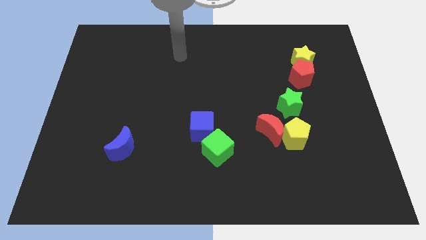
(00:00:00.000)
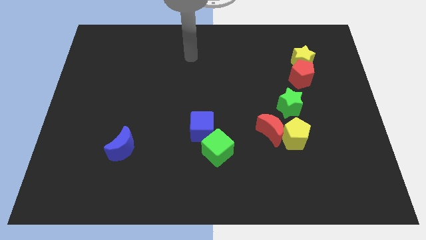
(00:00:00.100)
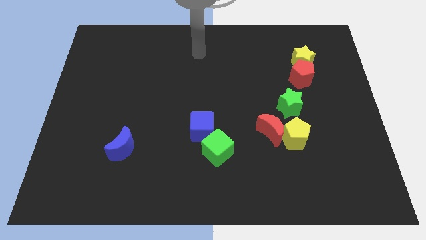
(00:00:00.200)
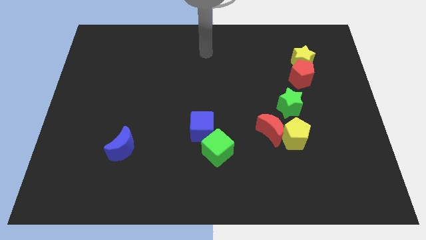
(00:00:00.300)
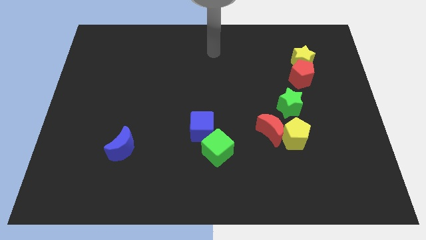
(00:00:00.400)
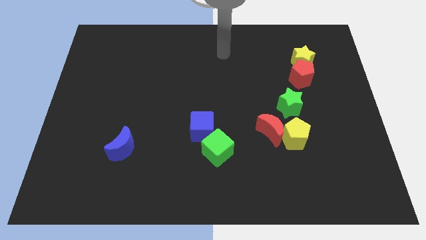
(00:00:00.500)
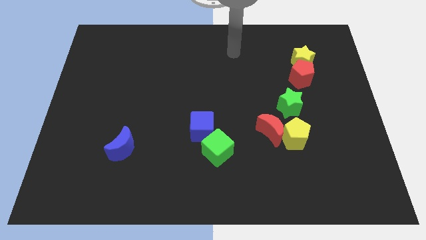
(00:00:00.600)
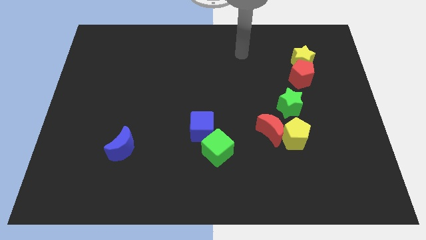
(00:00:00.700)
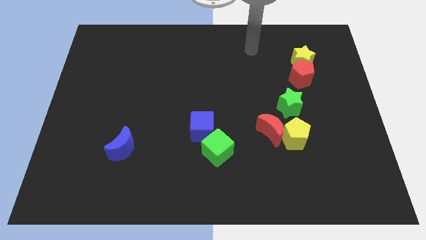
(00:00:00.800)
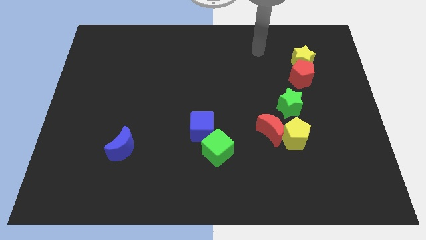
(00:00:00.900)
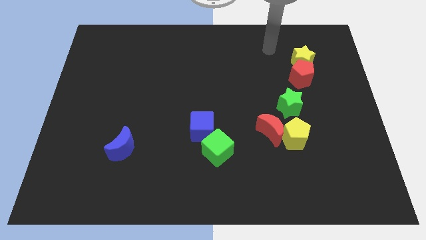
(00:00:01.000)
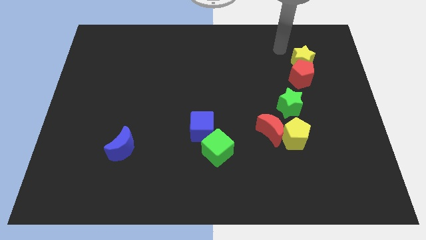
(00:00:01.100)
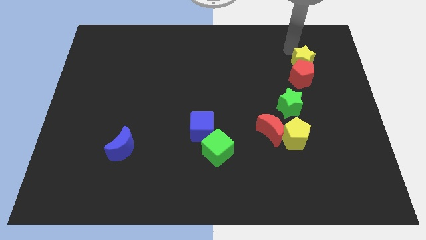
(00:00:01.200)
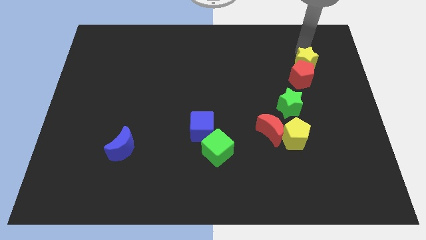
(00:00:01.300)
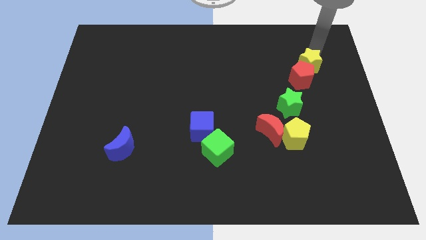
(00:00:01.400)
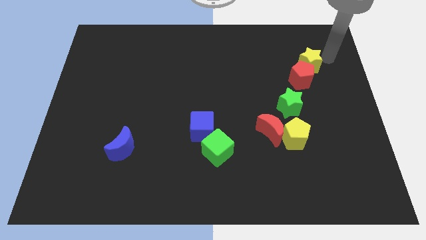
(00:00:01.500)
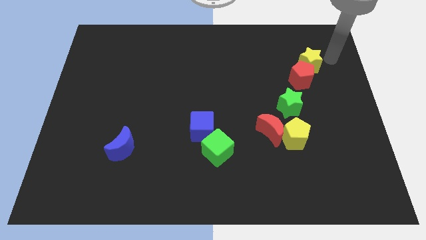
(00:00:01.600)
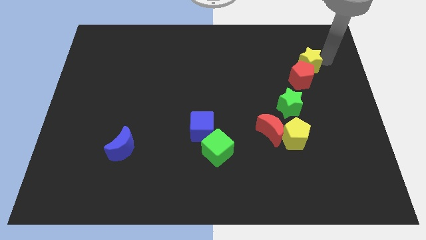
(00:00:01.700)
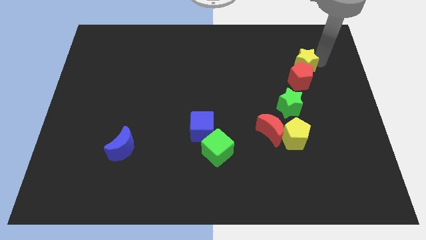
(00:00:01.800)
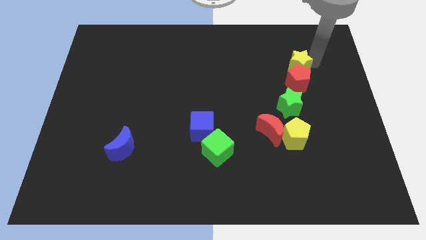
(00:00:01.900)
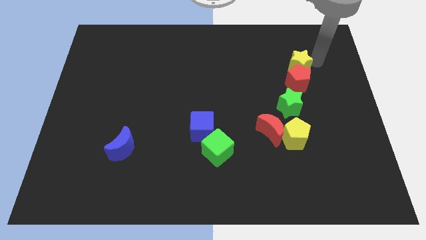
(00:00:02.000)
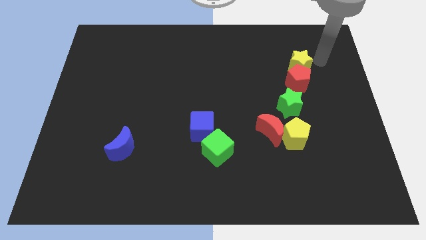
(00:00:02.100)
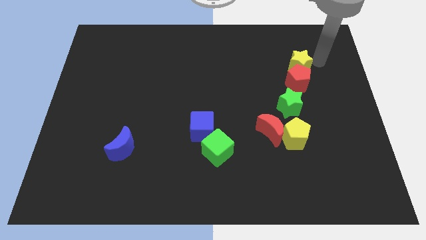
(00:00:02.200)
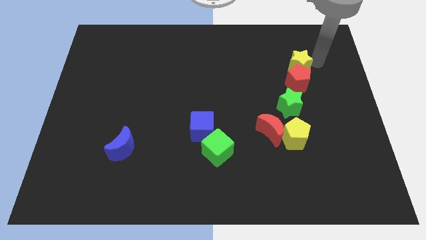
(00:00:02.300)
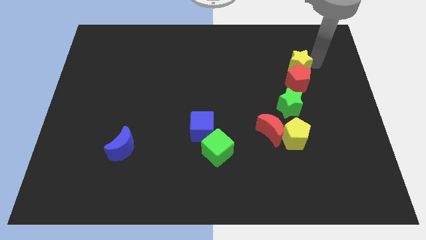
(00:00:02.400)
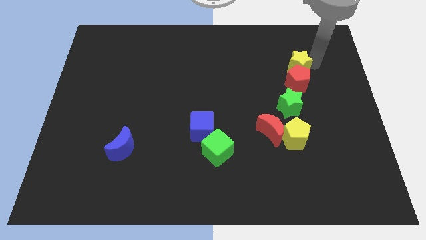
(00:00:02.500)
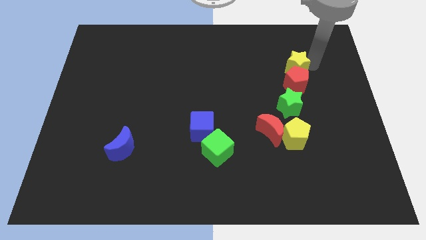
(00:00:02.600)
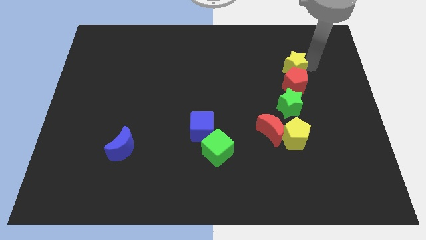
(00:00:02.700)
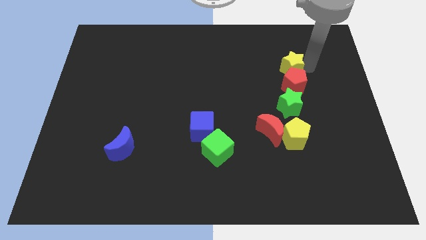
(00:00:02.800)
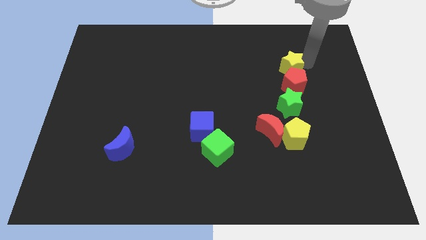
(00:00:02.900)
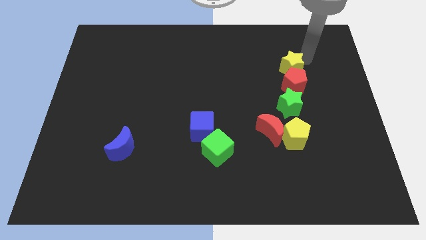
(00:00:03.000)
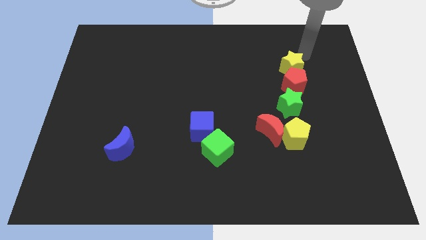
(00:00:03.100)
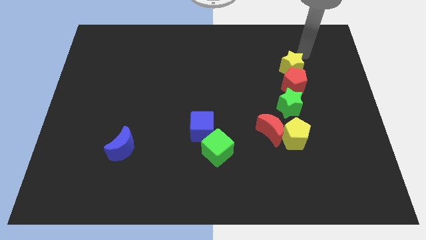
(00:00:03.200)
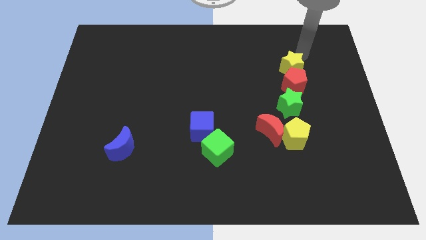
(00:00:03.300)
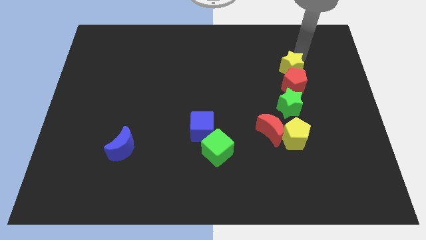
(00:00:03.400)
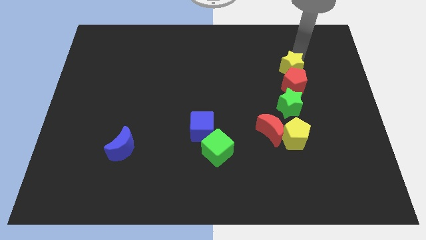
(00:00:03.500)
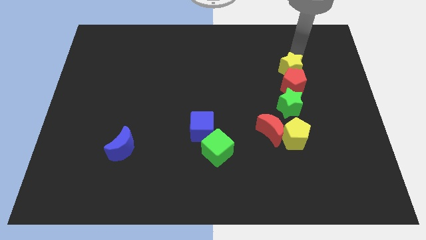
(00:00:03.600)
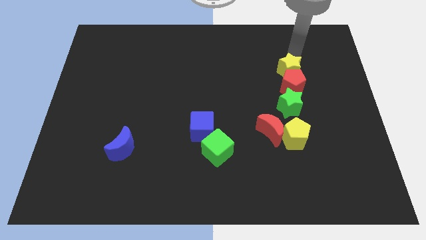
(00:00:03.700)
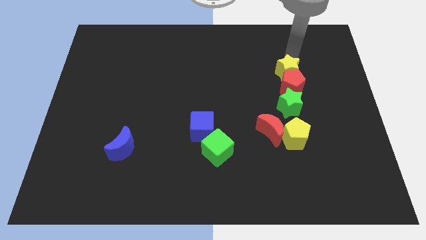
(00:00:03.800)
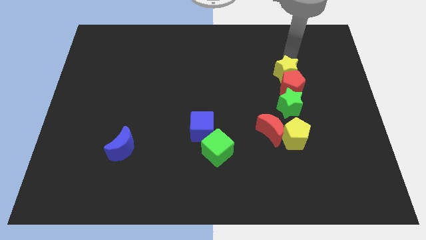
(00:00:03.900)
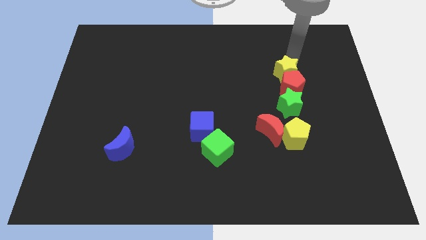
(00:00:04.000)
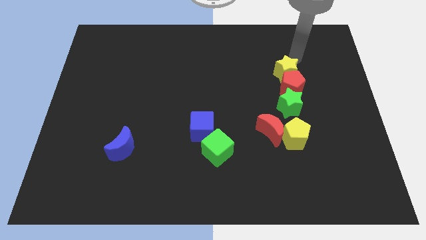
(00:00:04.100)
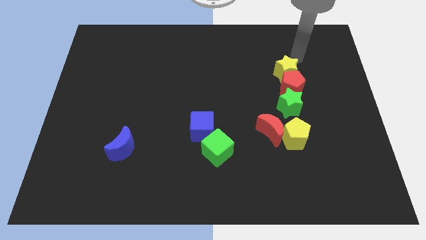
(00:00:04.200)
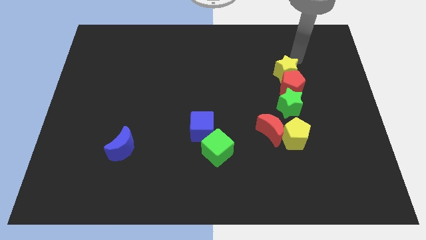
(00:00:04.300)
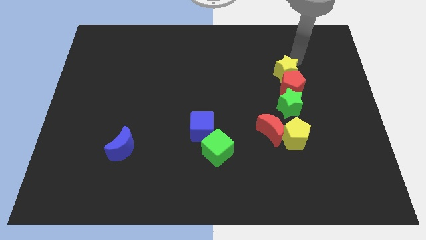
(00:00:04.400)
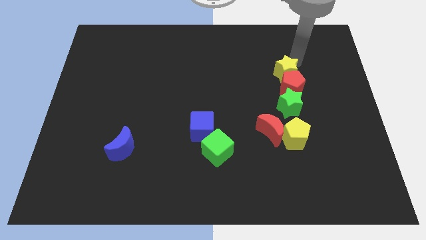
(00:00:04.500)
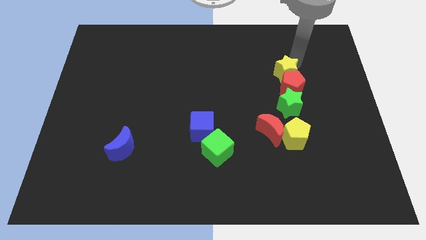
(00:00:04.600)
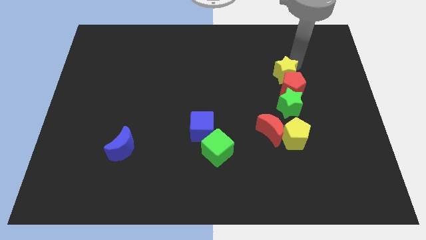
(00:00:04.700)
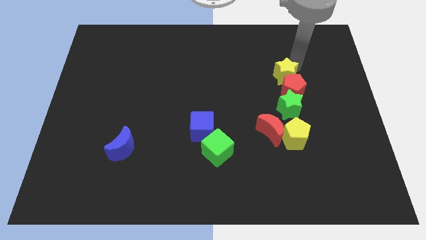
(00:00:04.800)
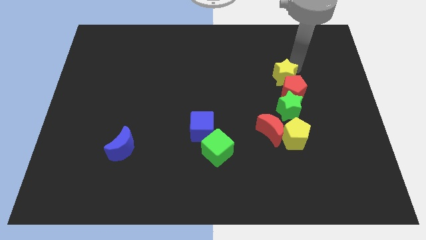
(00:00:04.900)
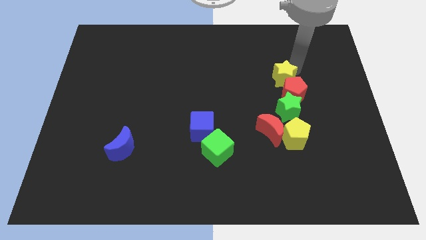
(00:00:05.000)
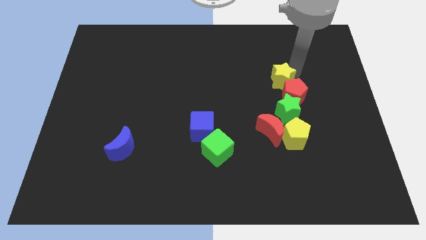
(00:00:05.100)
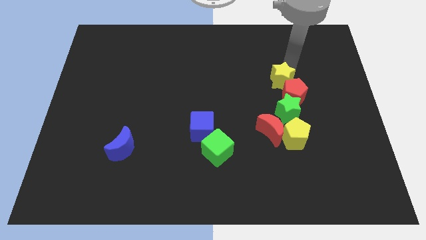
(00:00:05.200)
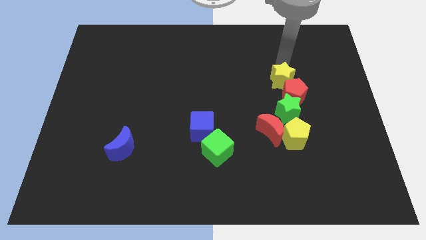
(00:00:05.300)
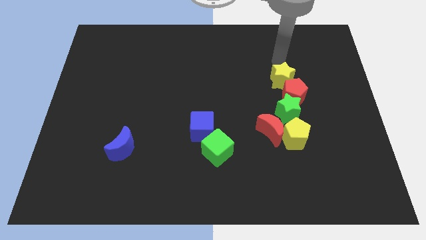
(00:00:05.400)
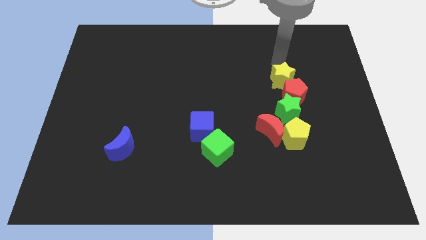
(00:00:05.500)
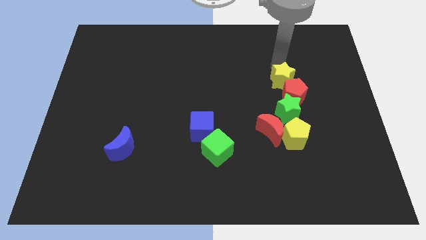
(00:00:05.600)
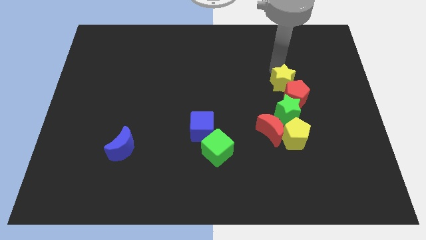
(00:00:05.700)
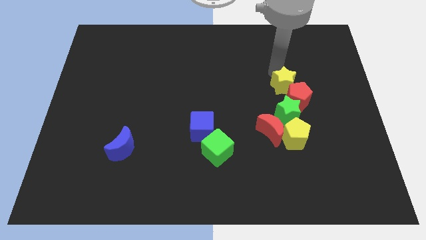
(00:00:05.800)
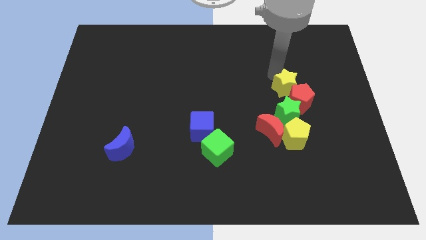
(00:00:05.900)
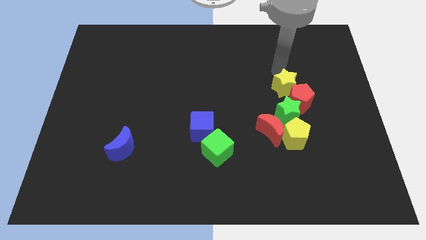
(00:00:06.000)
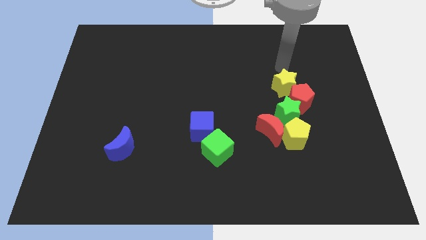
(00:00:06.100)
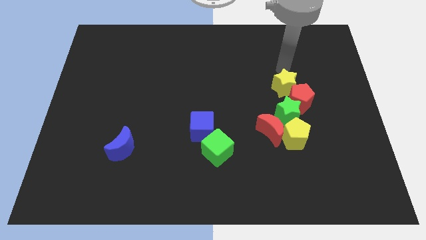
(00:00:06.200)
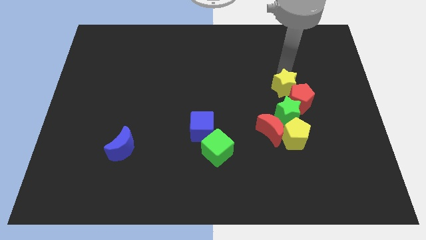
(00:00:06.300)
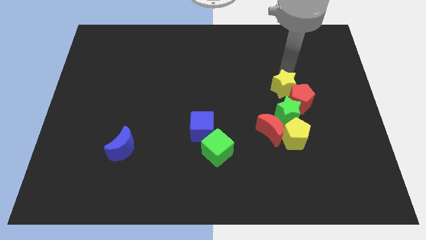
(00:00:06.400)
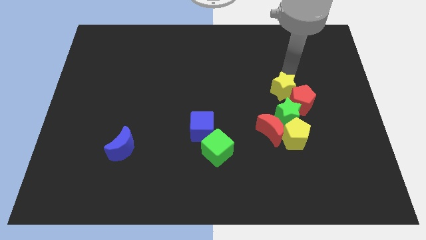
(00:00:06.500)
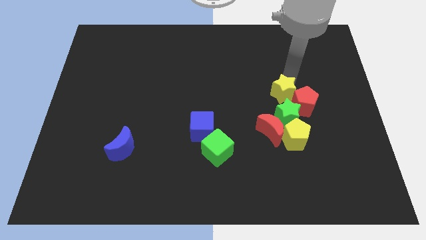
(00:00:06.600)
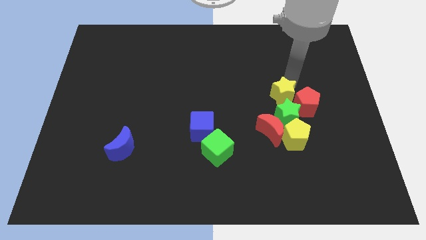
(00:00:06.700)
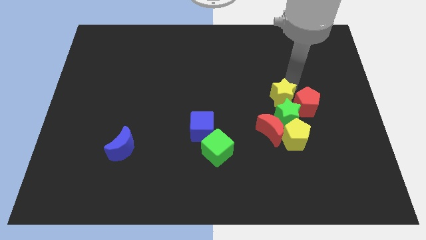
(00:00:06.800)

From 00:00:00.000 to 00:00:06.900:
slide the yellow star towards the green star
